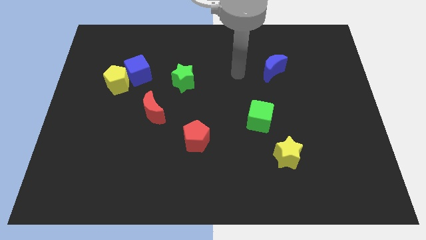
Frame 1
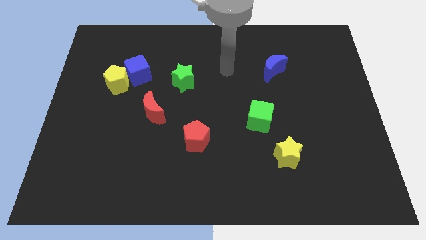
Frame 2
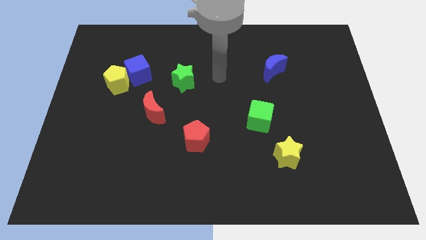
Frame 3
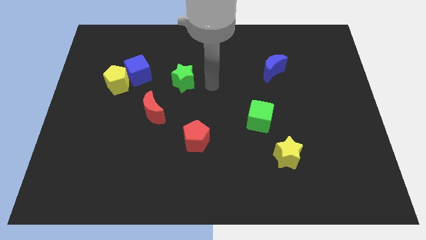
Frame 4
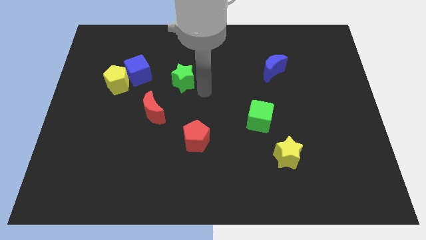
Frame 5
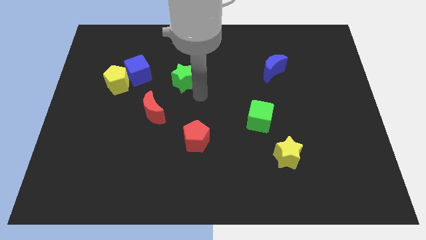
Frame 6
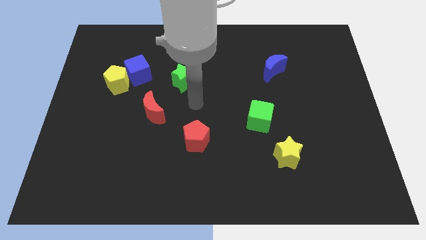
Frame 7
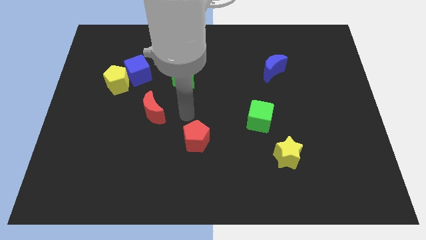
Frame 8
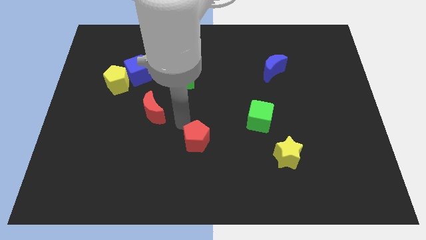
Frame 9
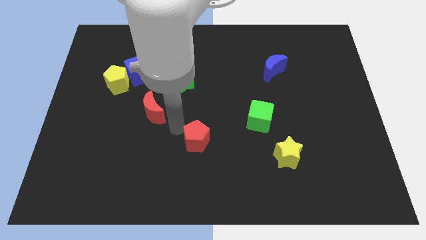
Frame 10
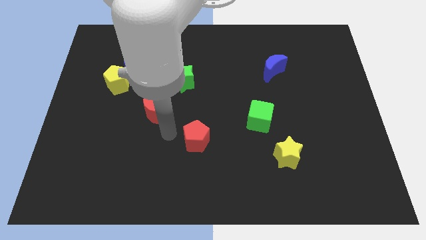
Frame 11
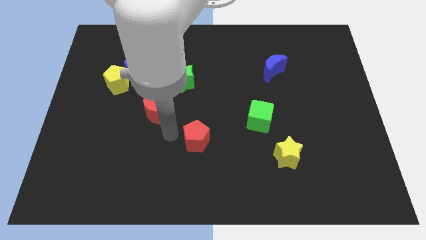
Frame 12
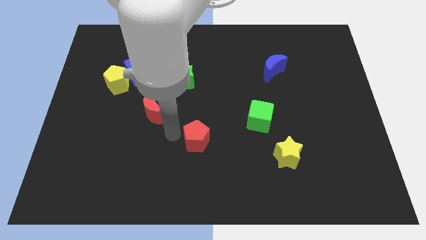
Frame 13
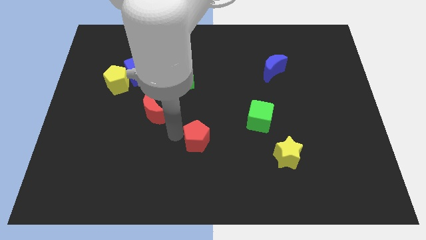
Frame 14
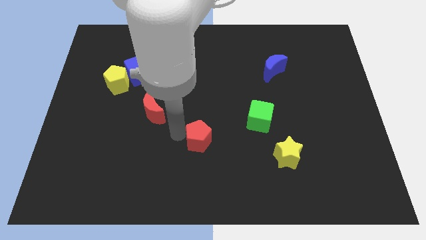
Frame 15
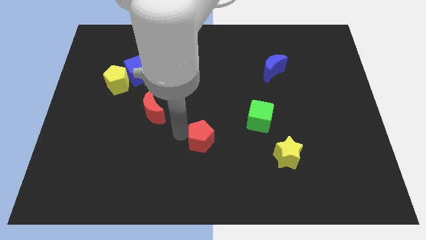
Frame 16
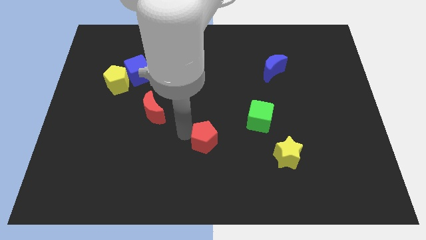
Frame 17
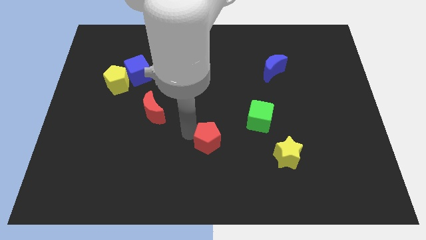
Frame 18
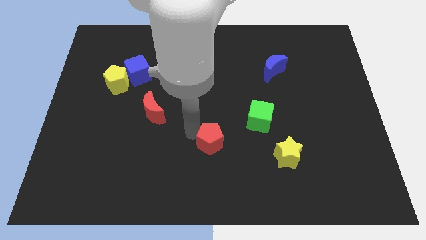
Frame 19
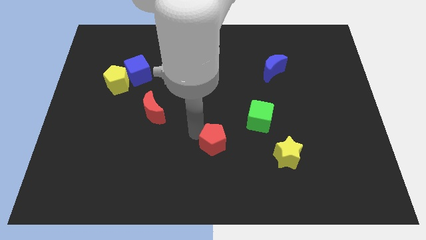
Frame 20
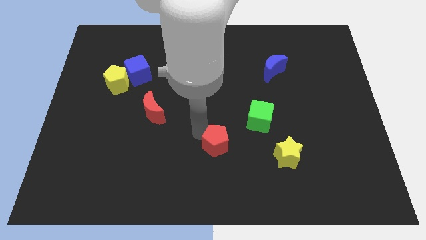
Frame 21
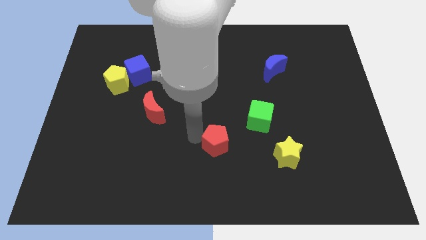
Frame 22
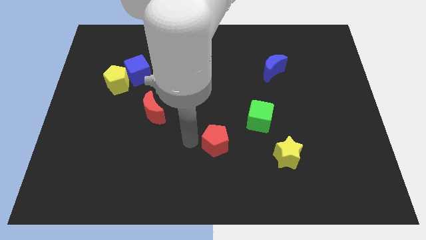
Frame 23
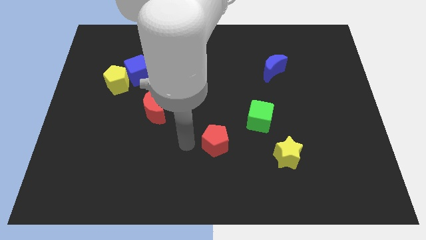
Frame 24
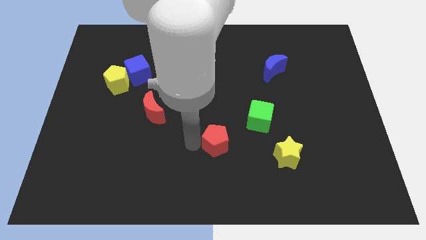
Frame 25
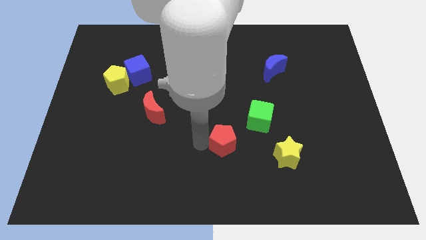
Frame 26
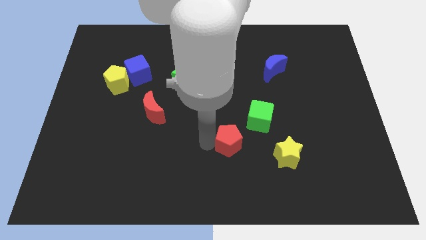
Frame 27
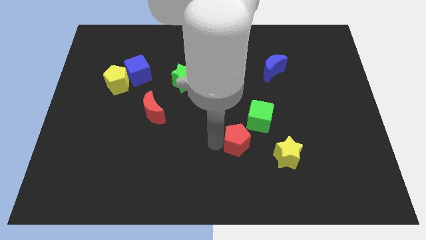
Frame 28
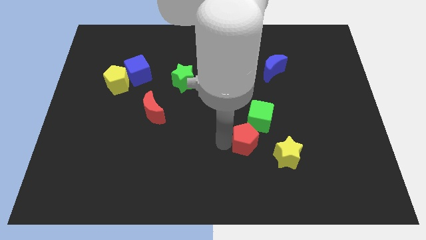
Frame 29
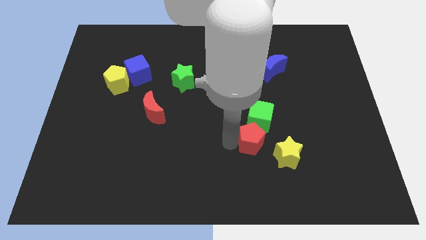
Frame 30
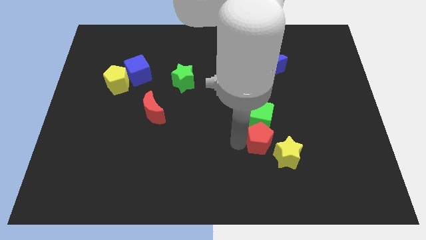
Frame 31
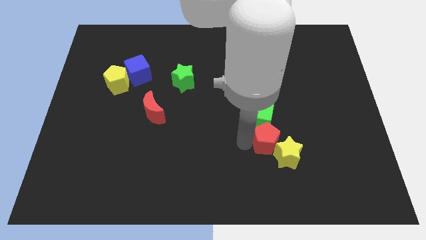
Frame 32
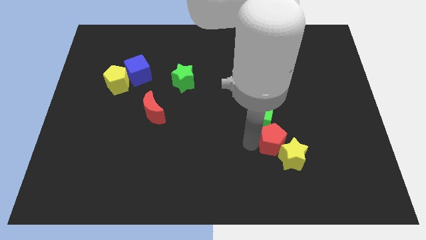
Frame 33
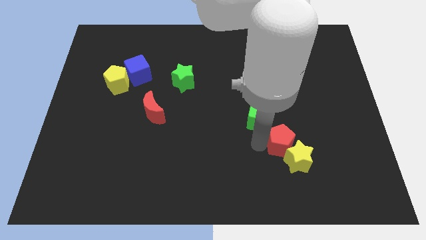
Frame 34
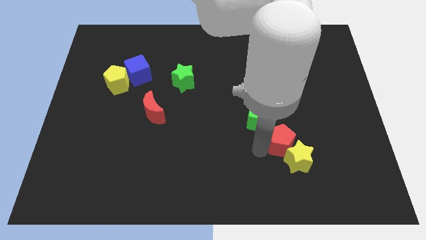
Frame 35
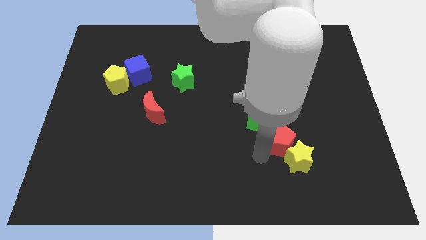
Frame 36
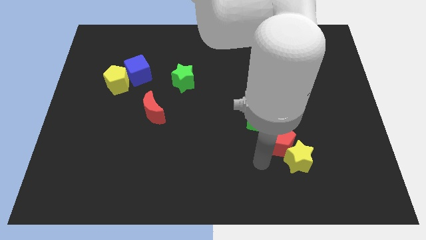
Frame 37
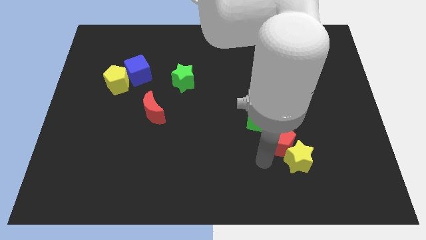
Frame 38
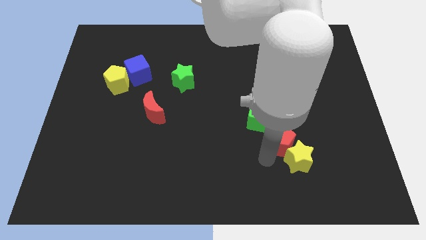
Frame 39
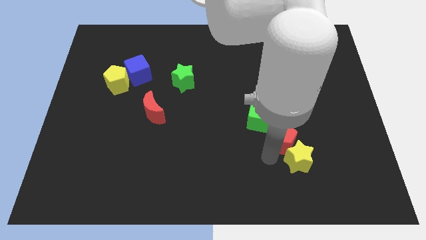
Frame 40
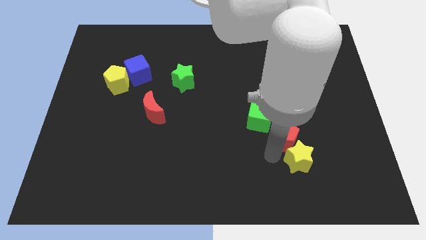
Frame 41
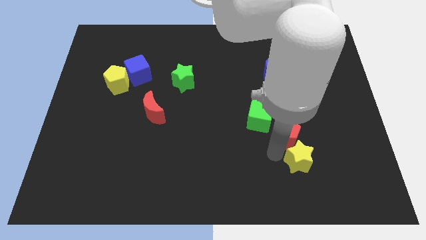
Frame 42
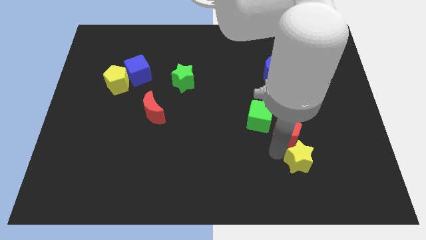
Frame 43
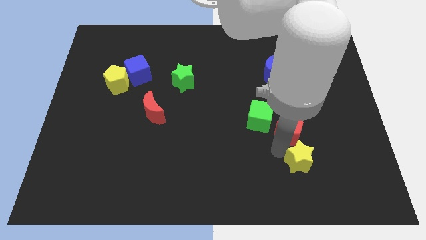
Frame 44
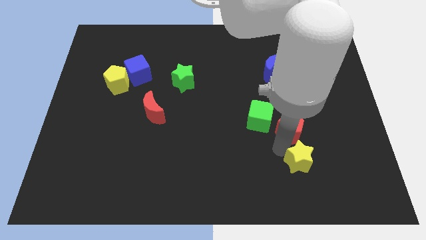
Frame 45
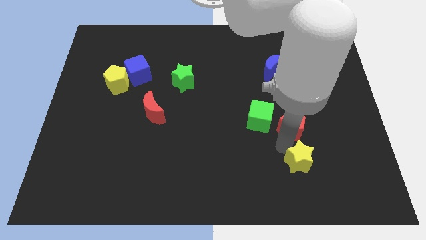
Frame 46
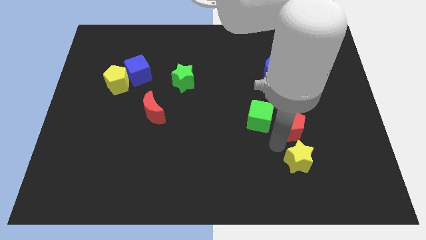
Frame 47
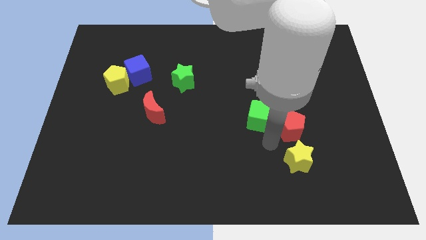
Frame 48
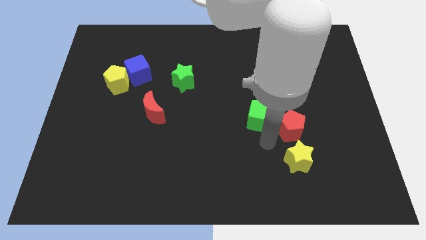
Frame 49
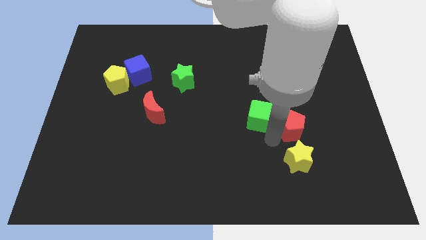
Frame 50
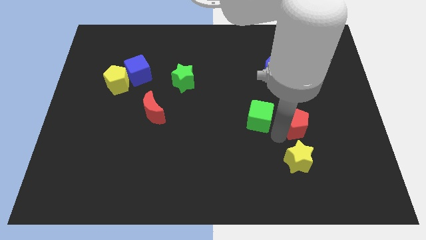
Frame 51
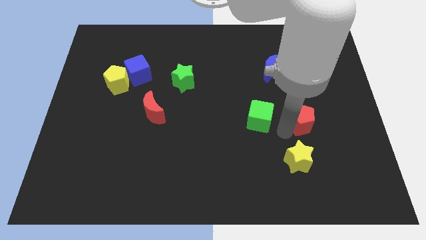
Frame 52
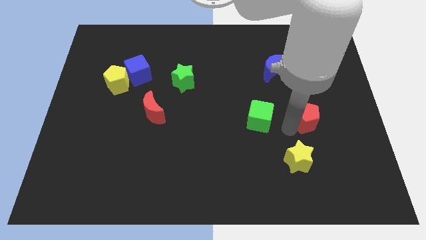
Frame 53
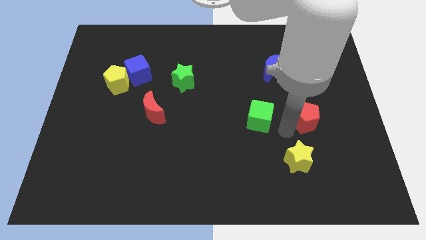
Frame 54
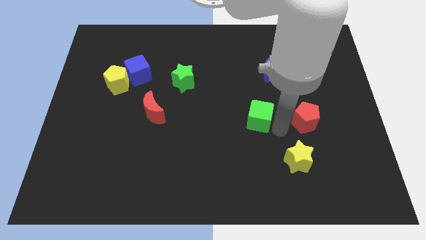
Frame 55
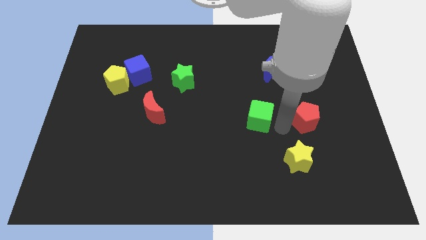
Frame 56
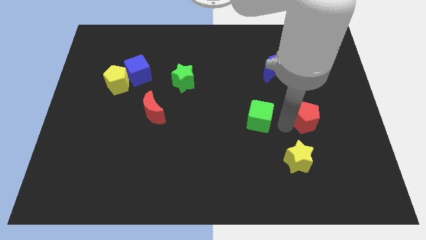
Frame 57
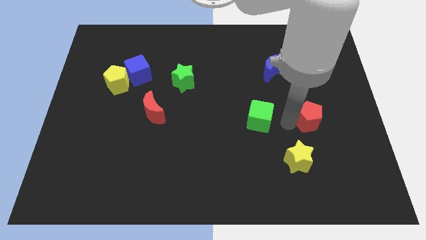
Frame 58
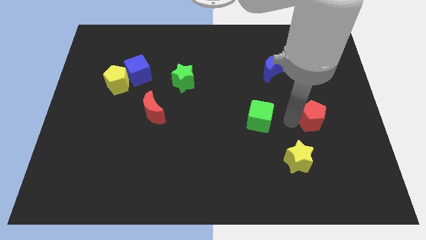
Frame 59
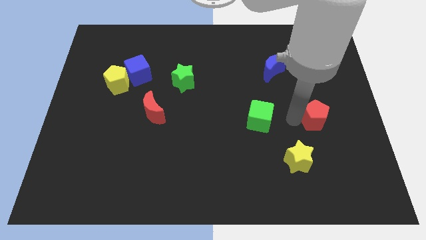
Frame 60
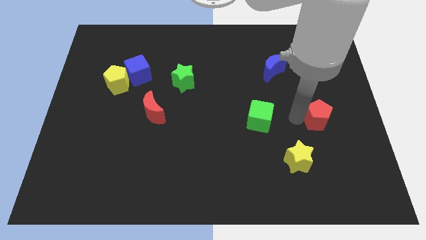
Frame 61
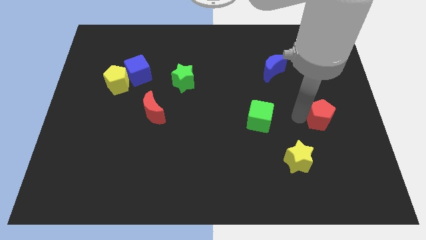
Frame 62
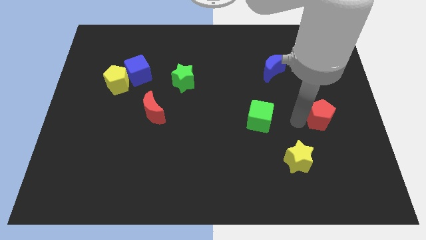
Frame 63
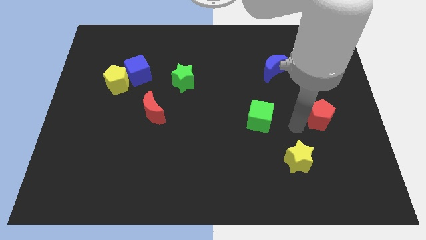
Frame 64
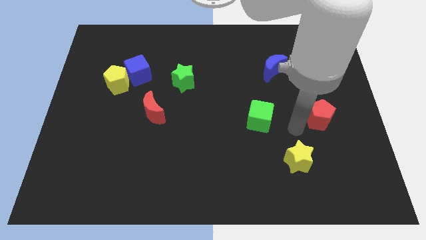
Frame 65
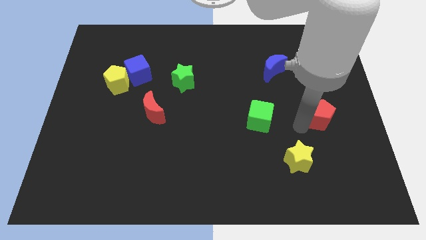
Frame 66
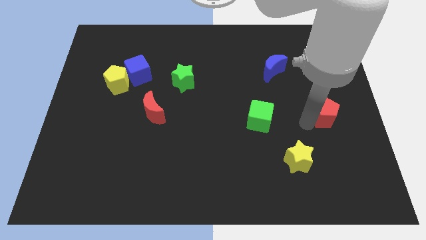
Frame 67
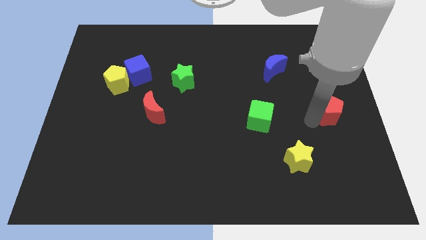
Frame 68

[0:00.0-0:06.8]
slide the red pentagon to the center right
